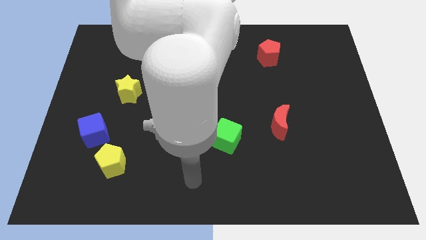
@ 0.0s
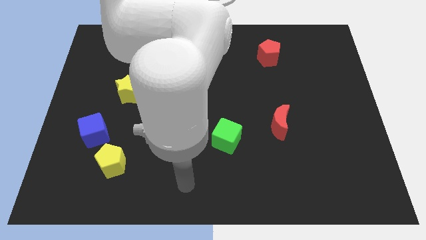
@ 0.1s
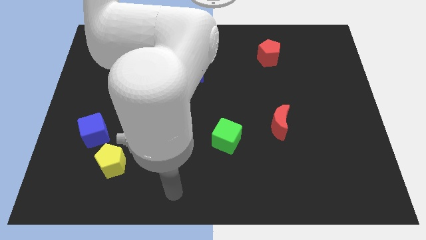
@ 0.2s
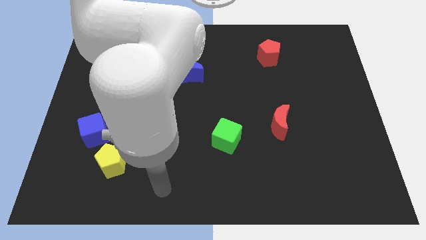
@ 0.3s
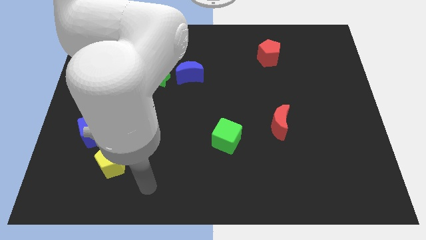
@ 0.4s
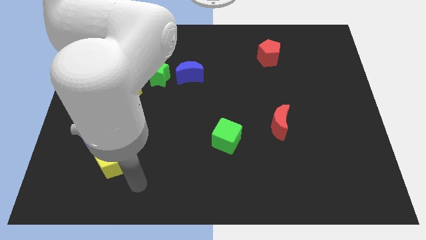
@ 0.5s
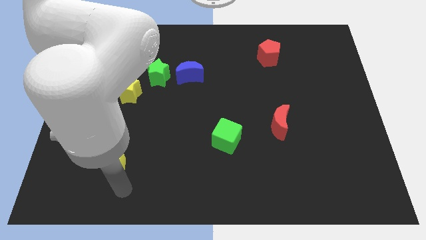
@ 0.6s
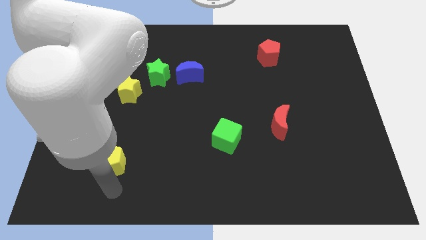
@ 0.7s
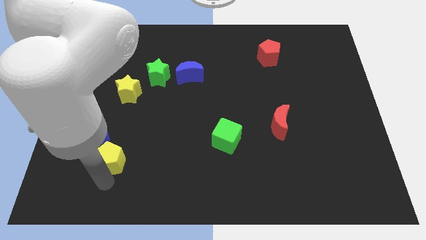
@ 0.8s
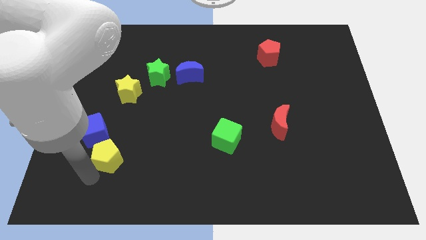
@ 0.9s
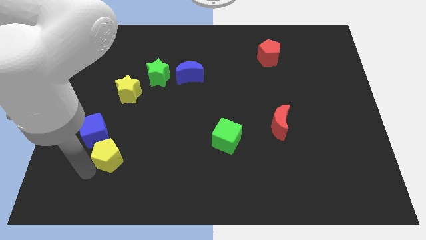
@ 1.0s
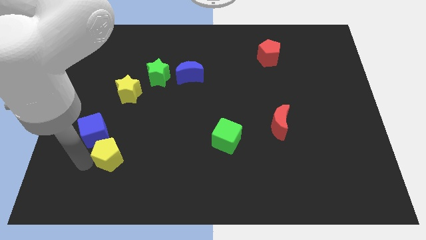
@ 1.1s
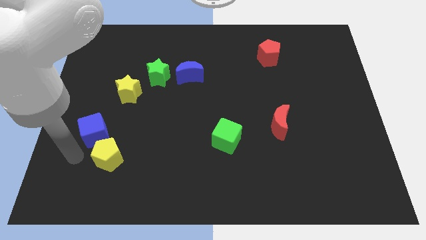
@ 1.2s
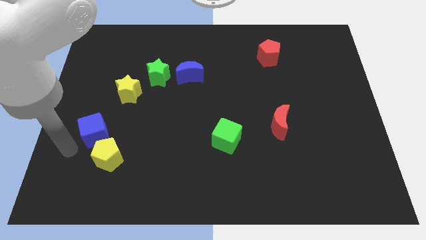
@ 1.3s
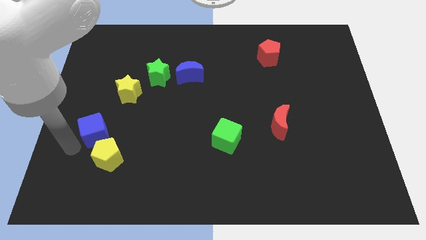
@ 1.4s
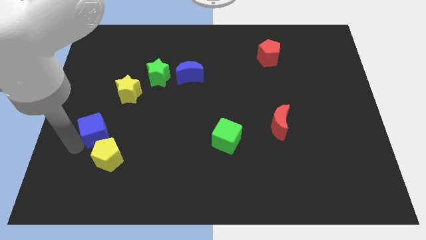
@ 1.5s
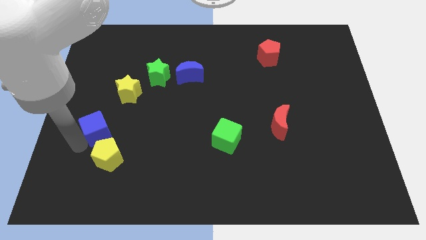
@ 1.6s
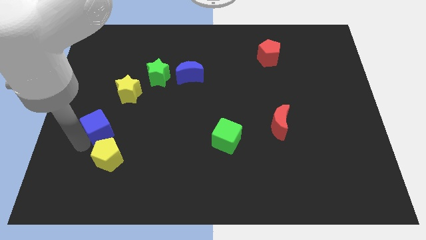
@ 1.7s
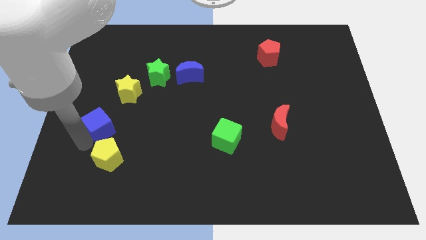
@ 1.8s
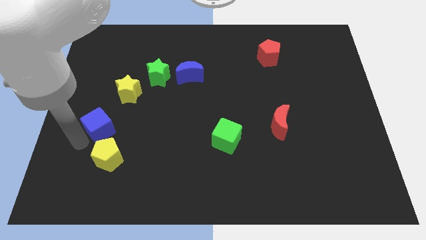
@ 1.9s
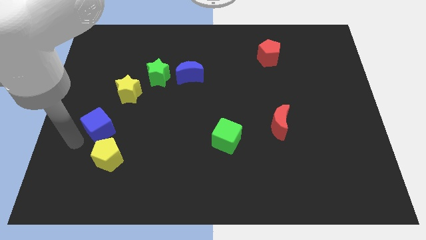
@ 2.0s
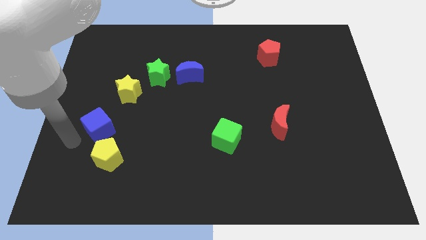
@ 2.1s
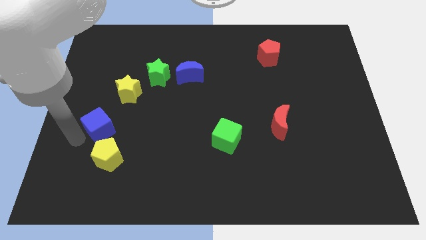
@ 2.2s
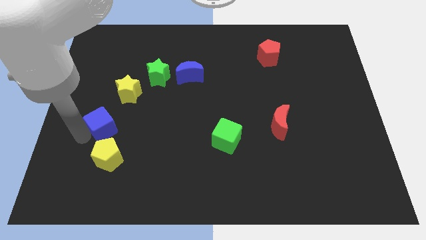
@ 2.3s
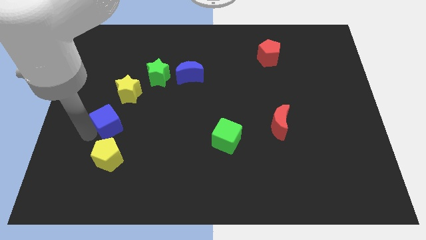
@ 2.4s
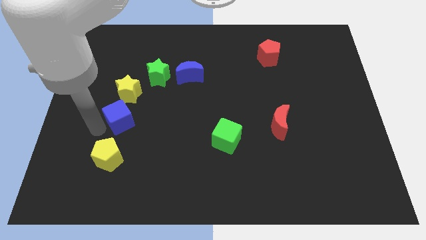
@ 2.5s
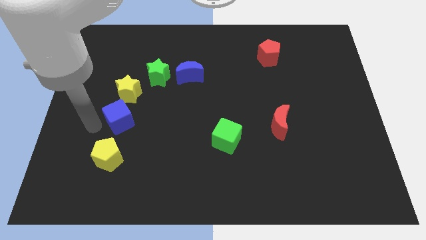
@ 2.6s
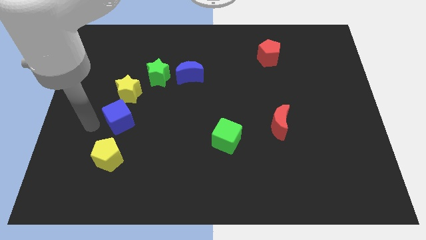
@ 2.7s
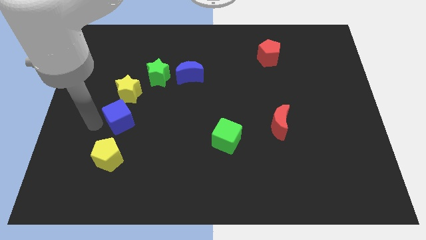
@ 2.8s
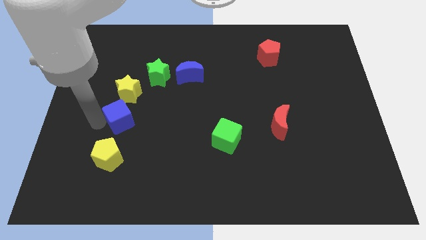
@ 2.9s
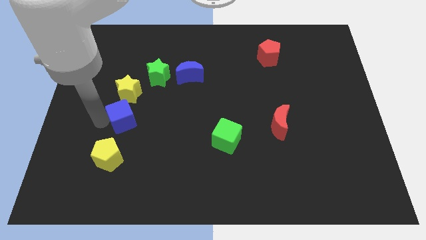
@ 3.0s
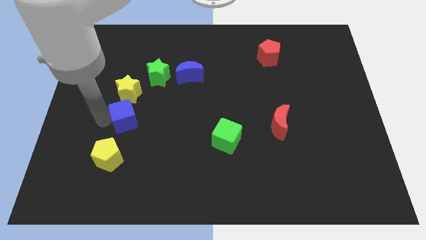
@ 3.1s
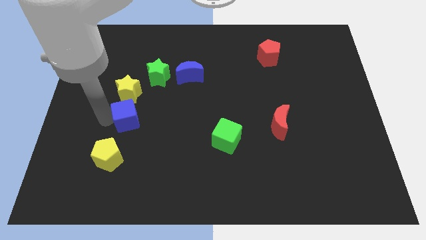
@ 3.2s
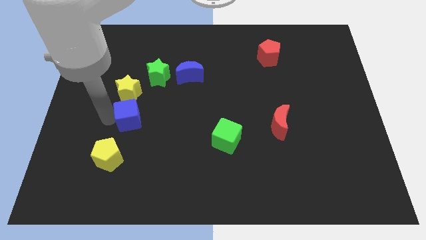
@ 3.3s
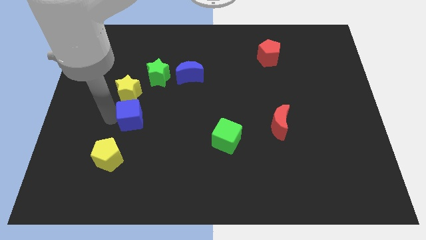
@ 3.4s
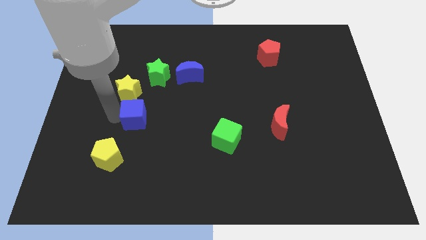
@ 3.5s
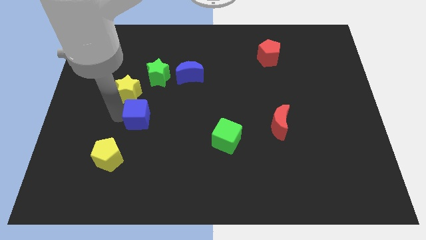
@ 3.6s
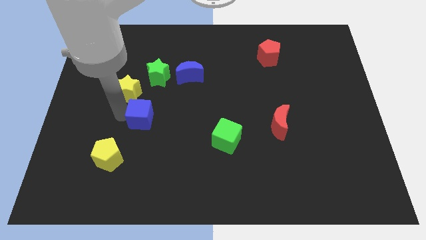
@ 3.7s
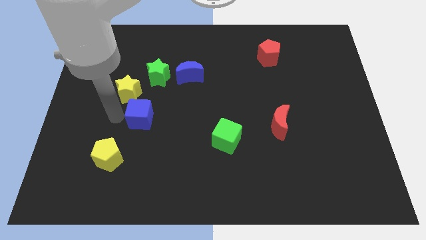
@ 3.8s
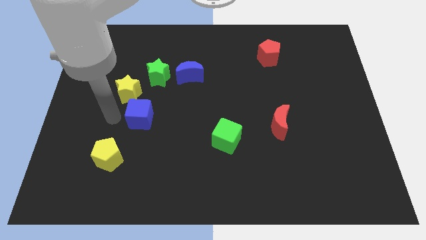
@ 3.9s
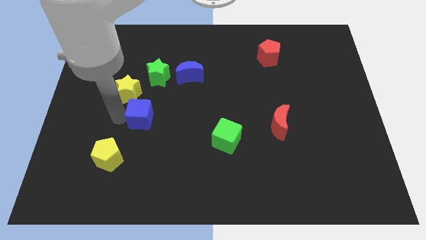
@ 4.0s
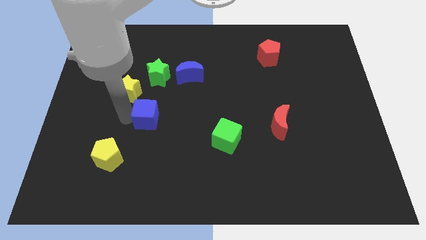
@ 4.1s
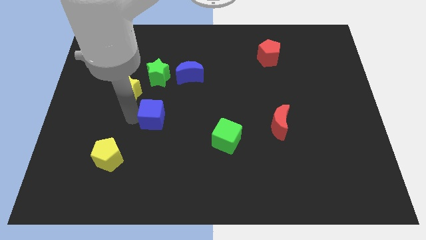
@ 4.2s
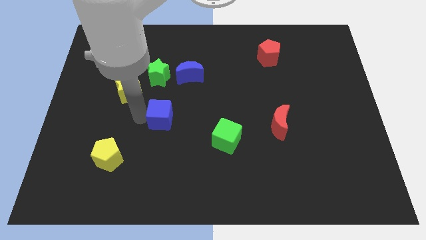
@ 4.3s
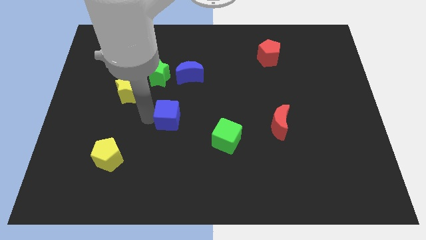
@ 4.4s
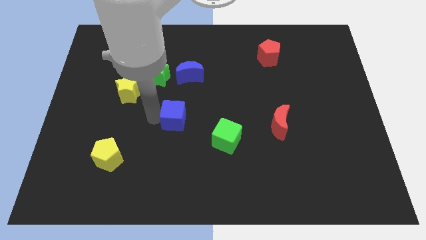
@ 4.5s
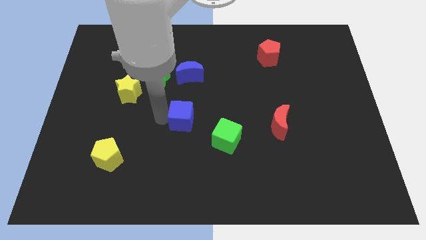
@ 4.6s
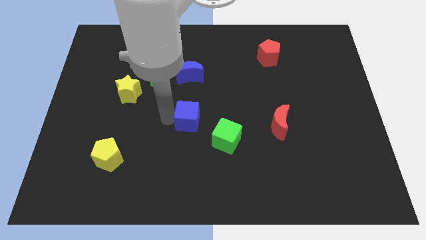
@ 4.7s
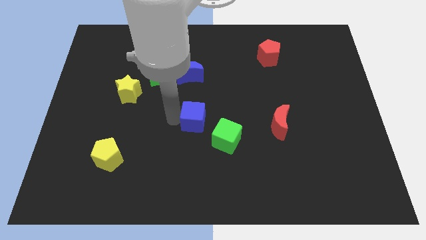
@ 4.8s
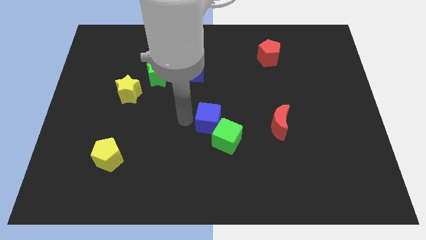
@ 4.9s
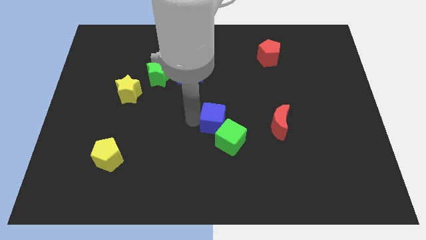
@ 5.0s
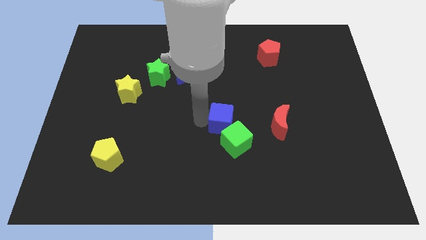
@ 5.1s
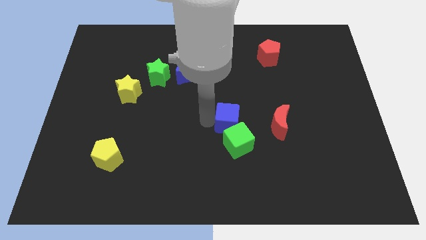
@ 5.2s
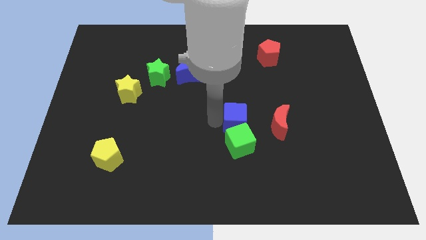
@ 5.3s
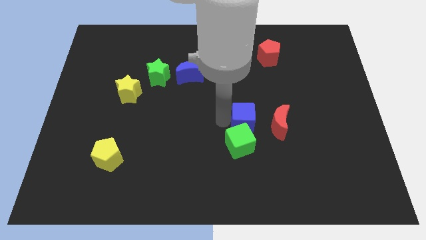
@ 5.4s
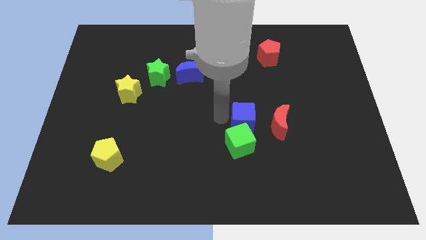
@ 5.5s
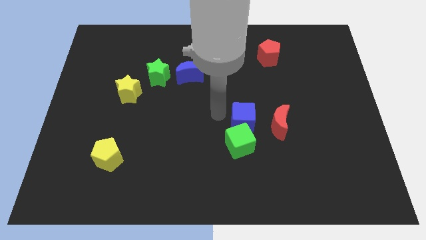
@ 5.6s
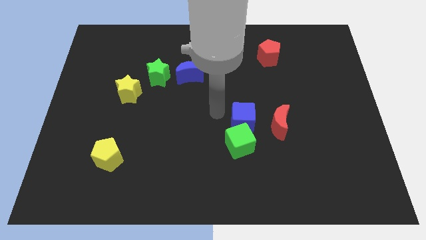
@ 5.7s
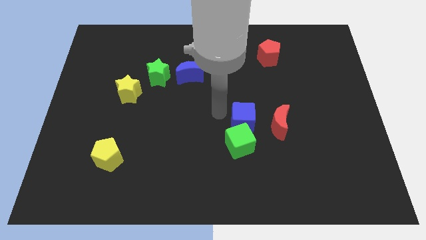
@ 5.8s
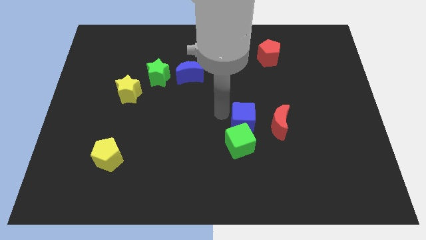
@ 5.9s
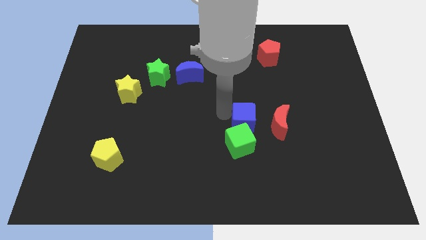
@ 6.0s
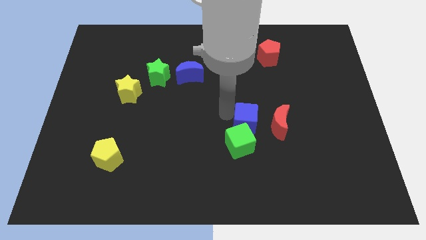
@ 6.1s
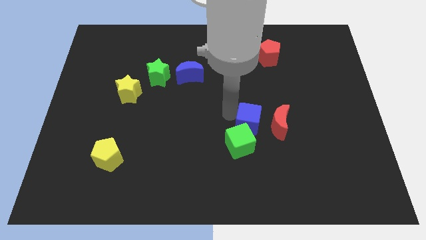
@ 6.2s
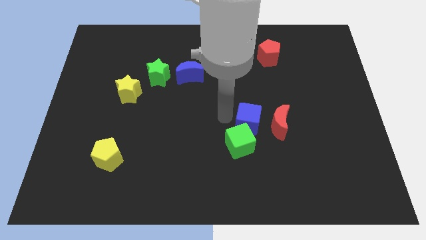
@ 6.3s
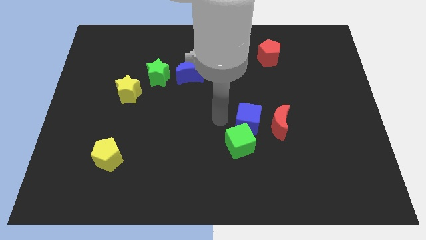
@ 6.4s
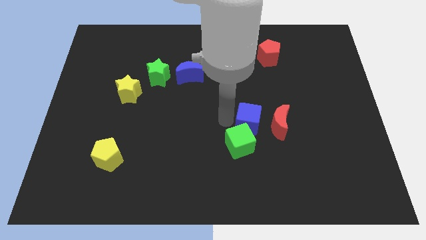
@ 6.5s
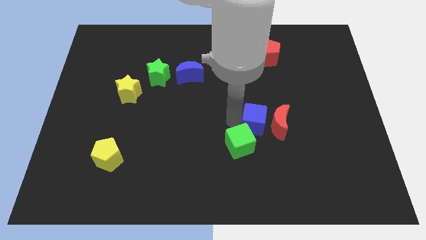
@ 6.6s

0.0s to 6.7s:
slide the blue cube towards the red moon
